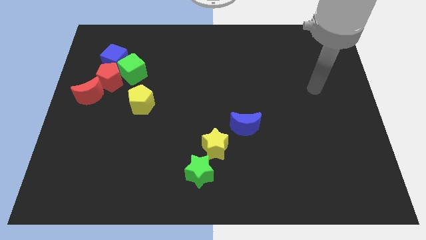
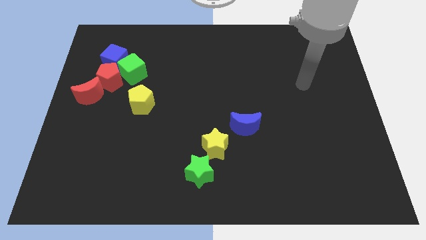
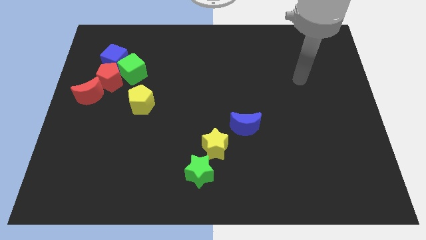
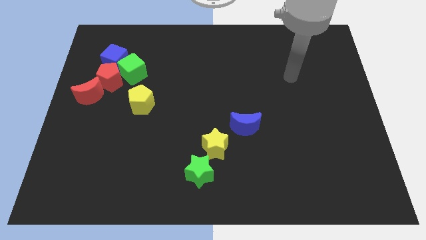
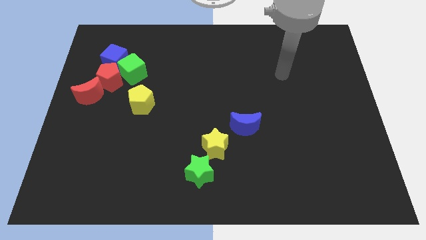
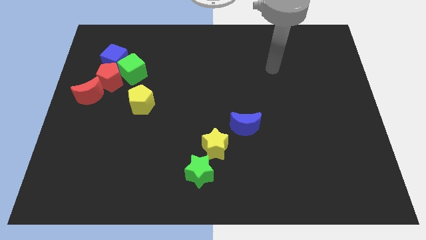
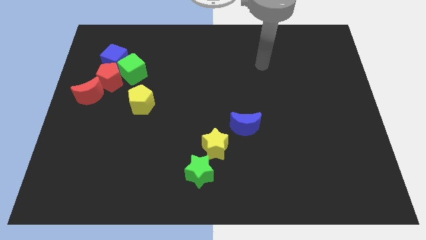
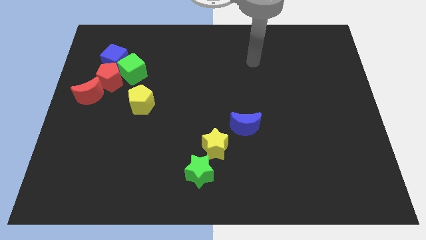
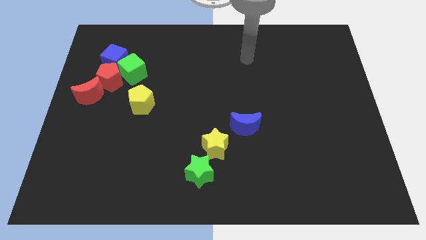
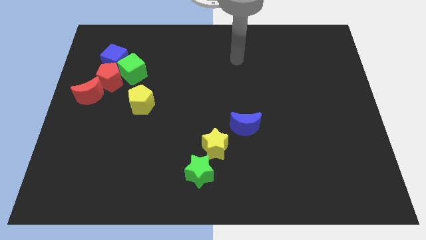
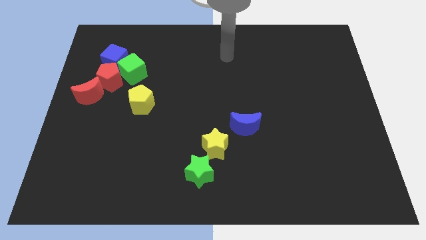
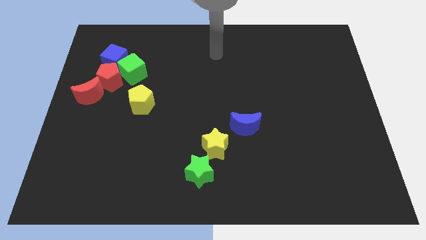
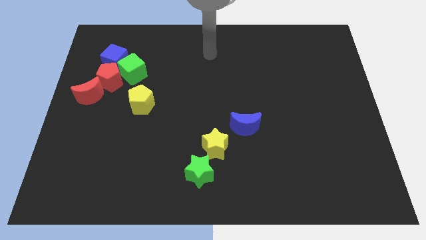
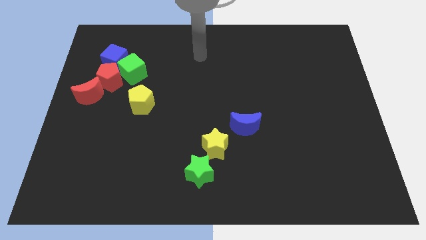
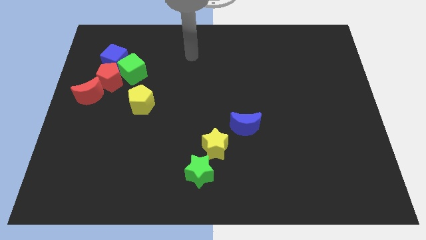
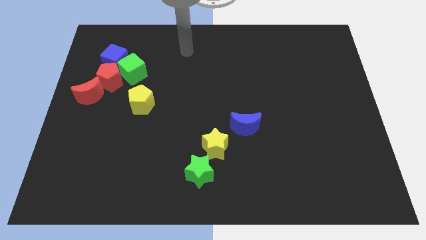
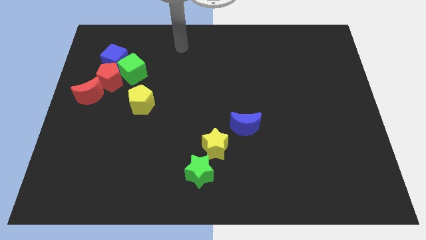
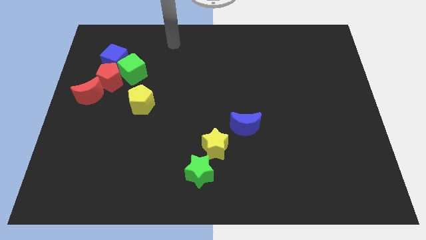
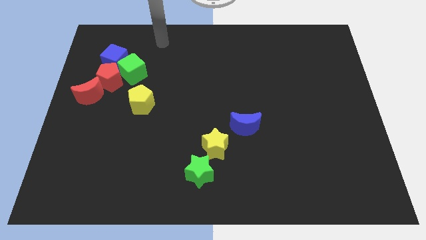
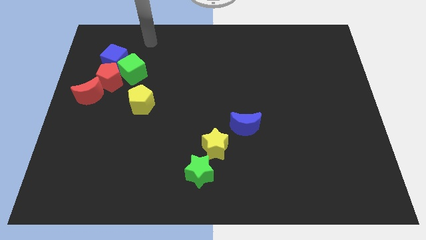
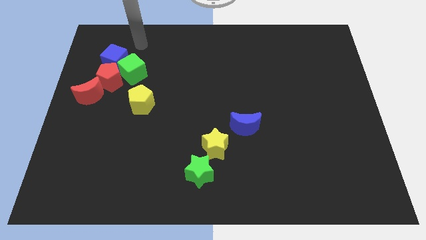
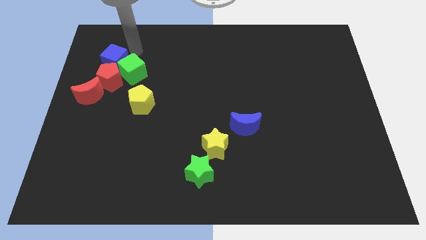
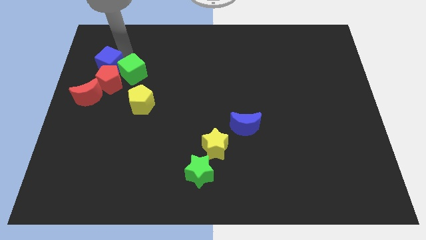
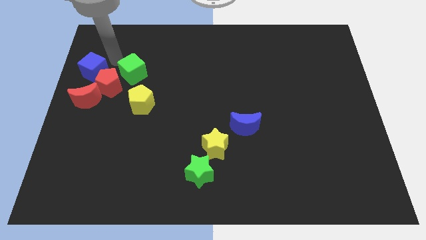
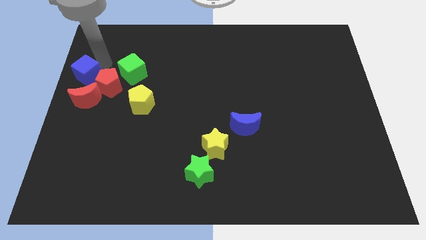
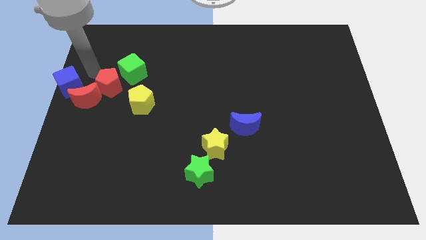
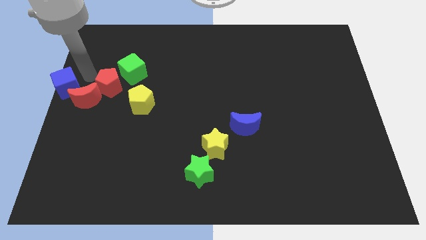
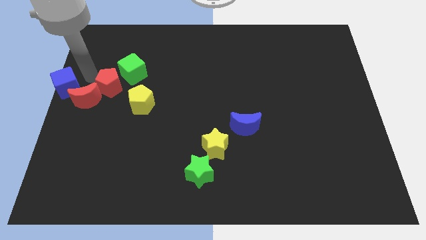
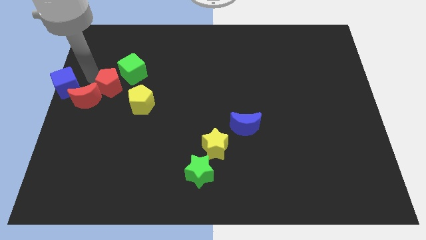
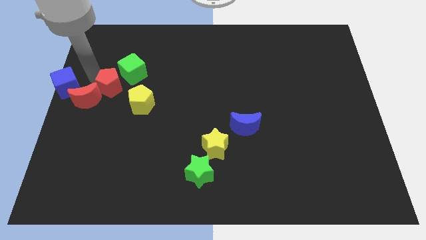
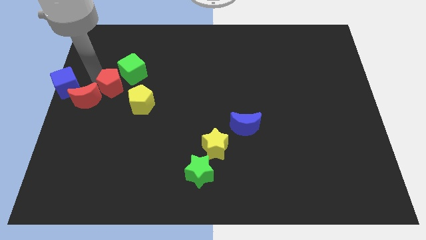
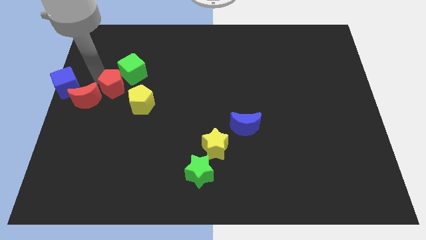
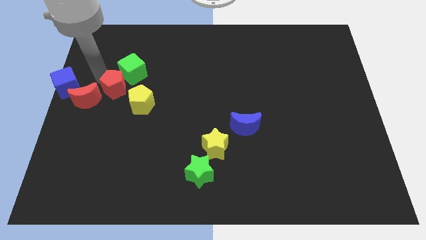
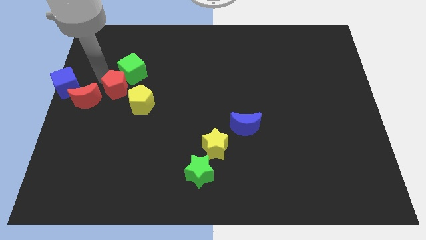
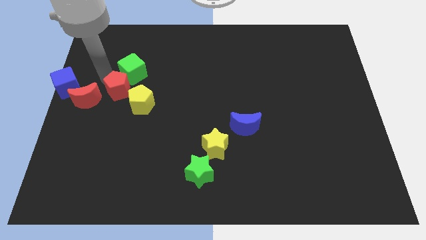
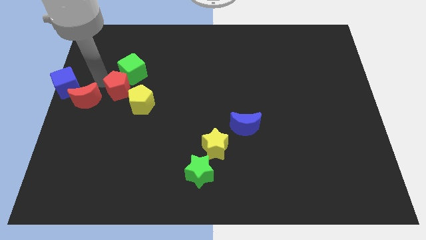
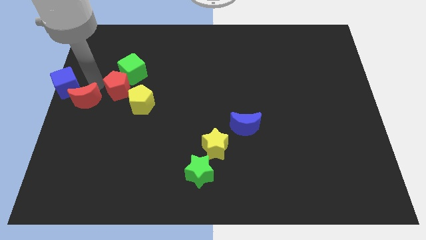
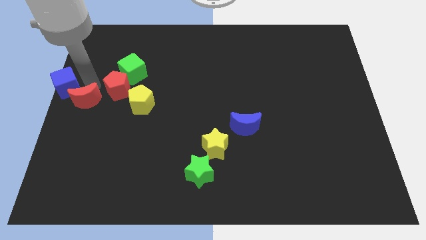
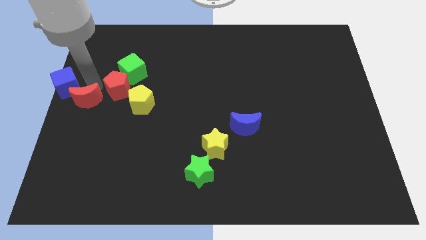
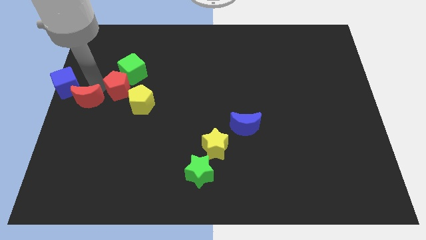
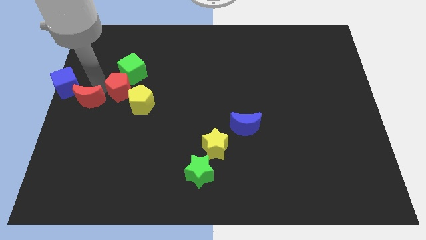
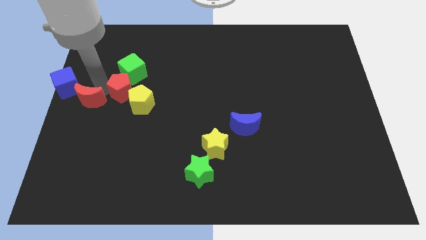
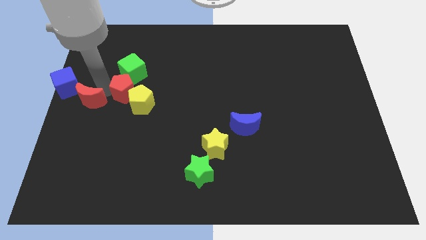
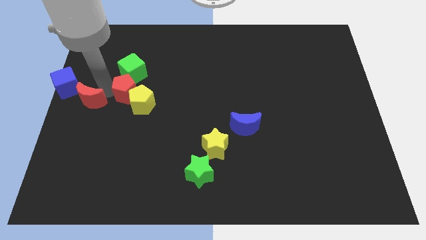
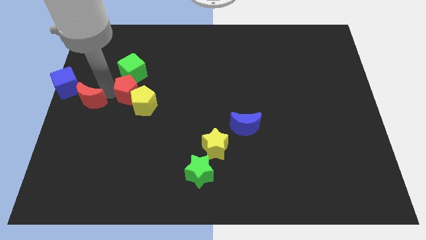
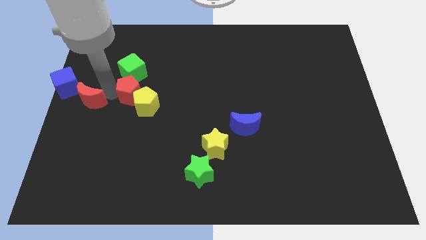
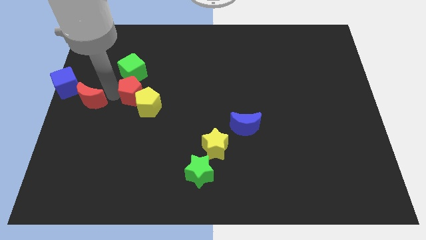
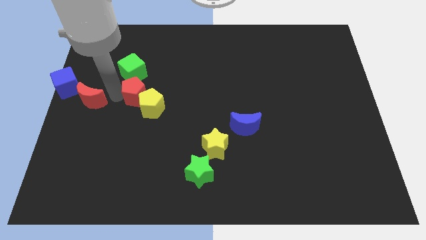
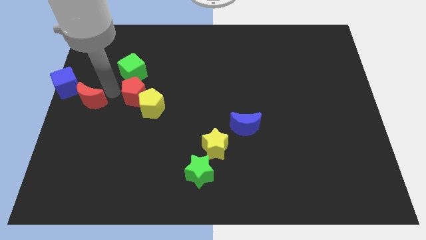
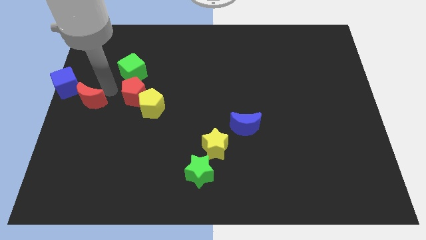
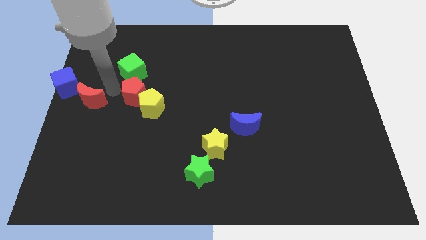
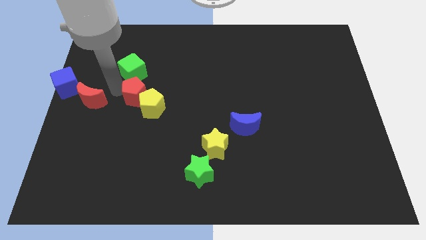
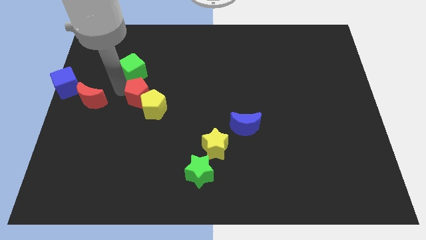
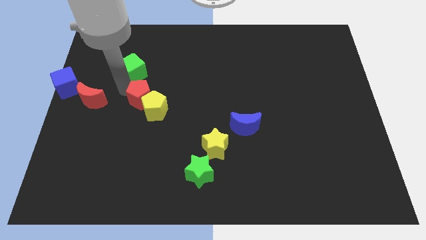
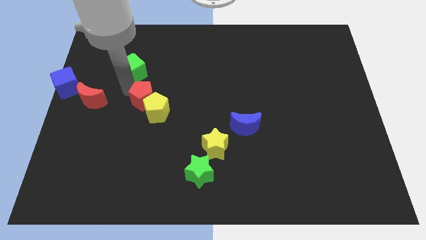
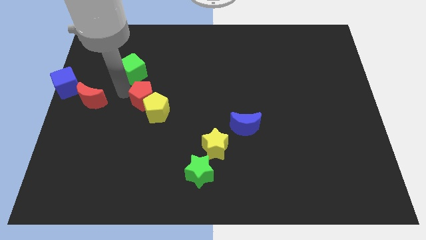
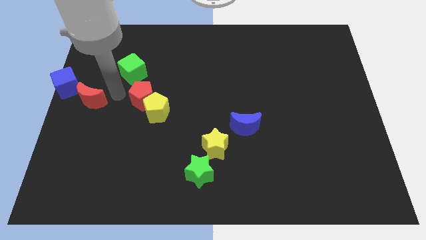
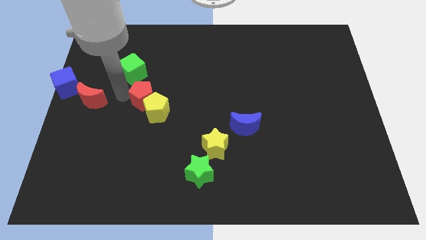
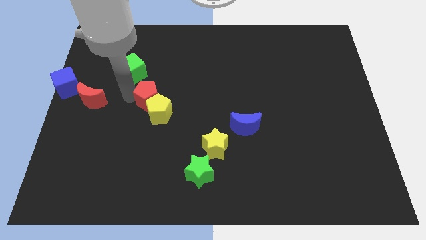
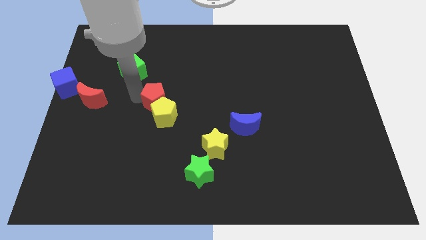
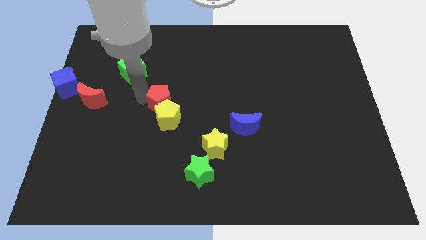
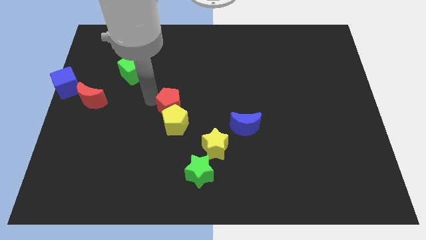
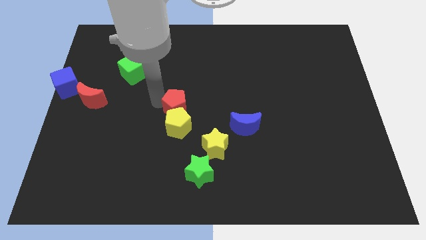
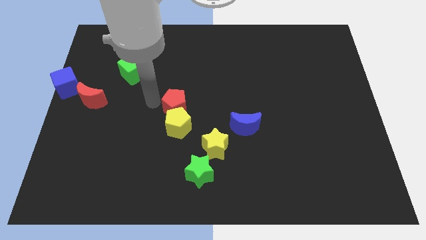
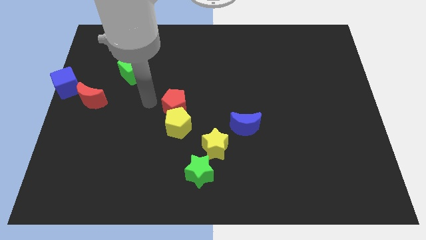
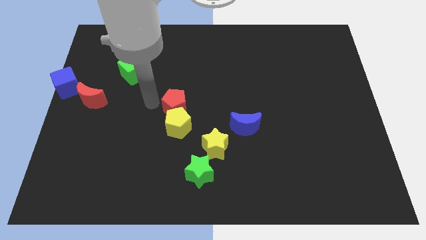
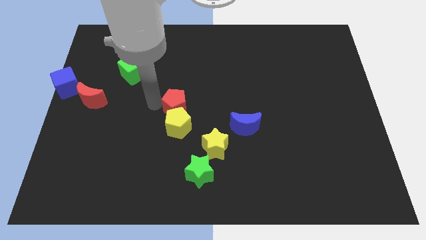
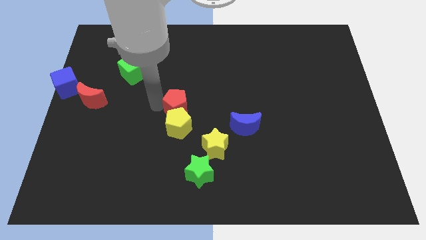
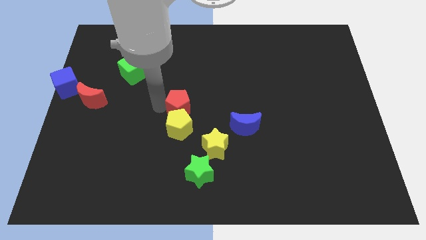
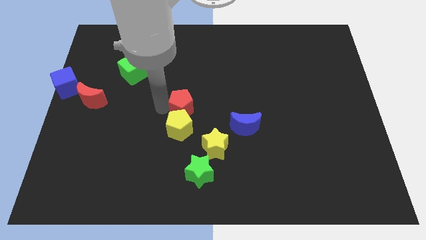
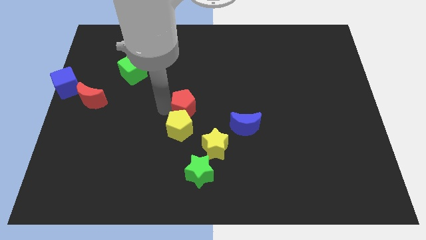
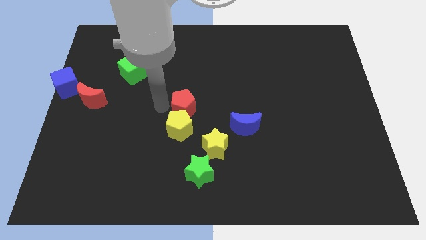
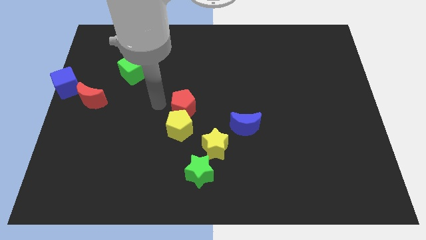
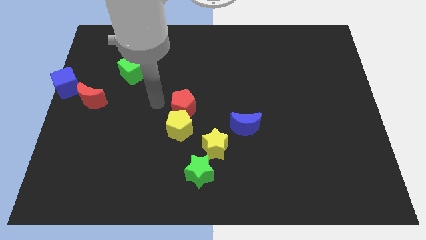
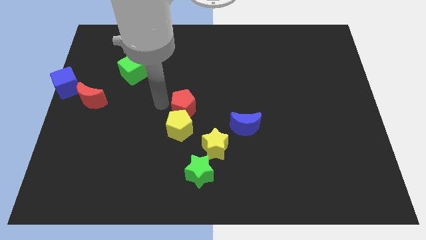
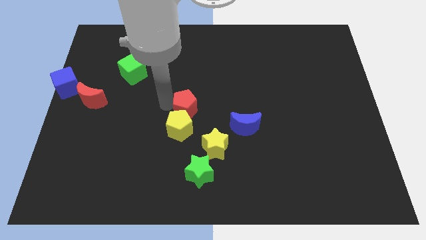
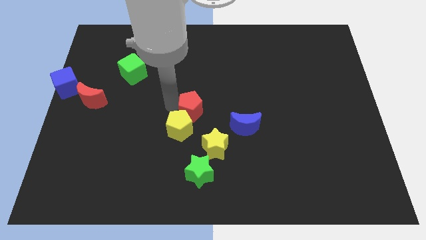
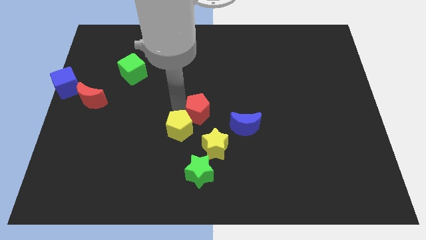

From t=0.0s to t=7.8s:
push the red pentagon to the top of the yellow star

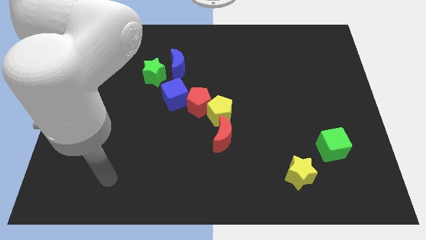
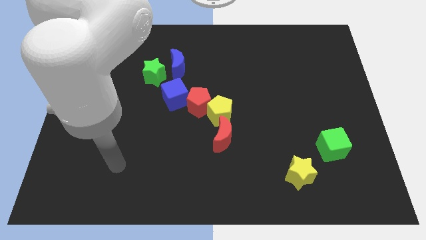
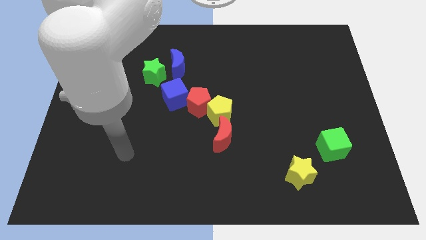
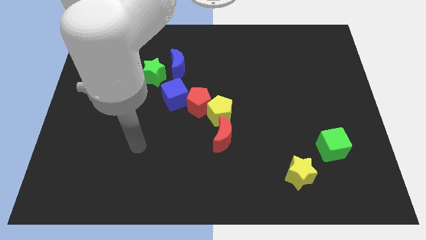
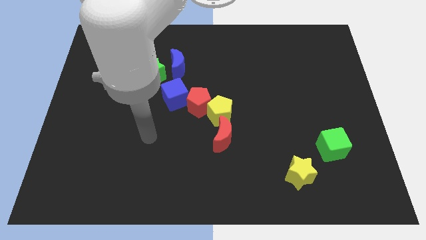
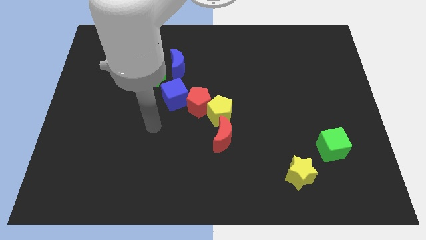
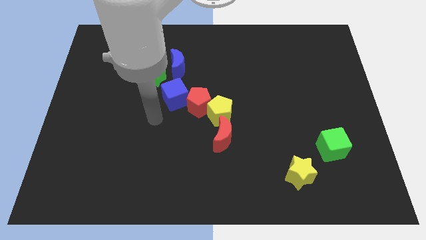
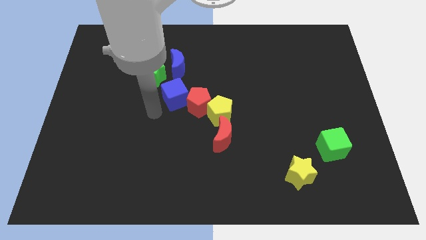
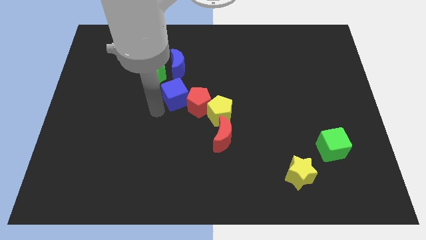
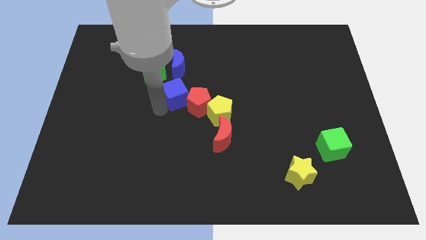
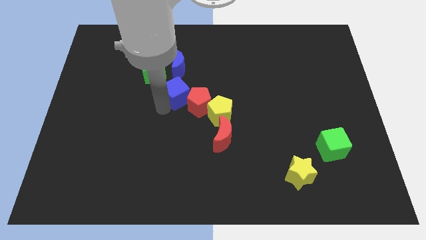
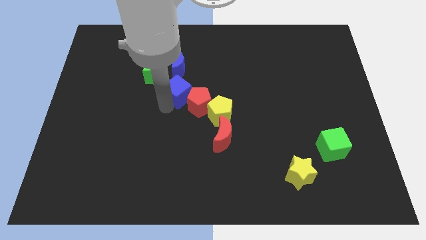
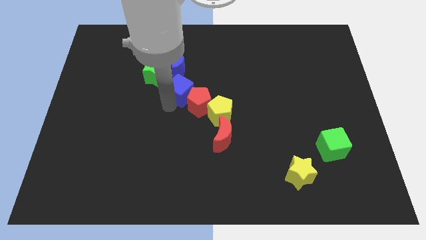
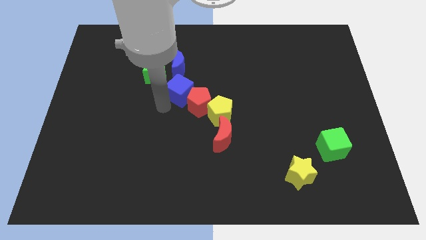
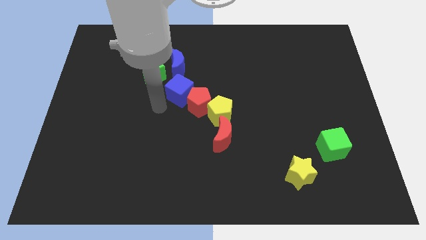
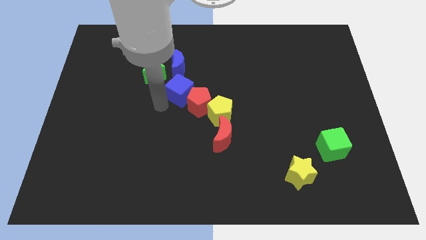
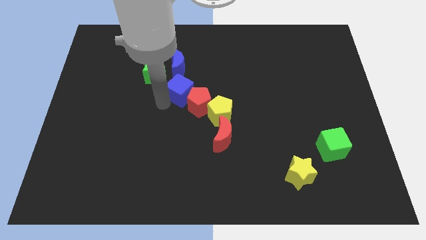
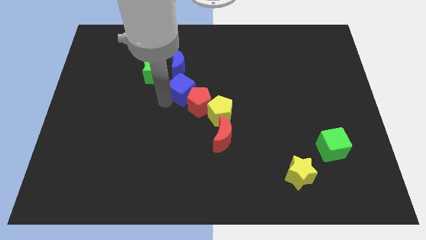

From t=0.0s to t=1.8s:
move the blue cube to the bottom right of the blue moon
